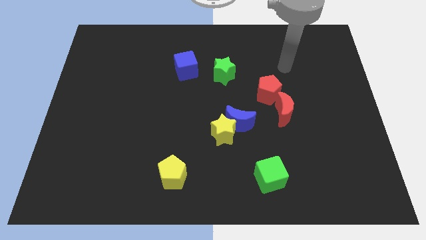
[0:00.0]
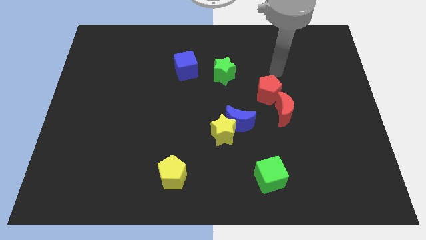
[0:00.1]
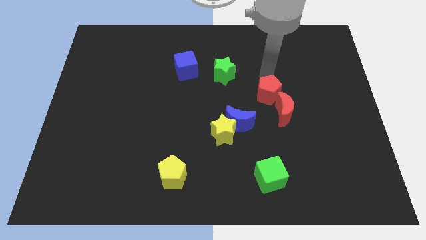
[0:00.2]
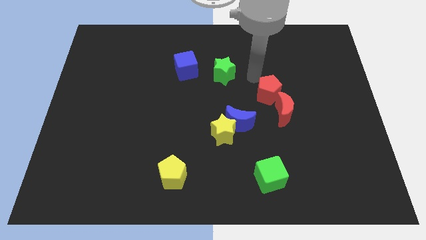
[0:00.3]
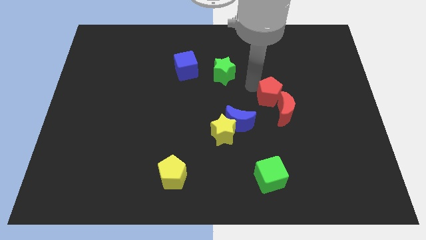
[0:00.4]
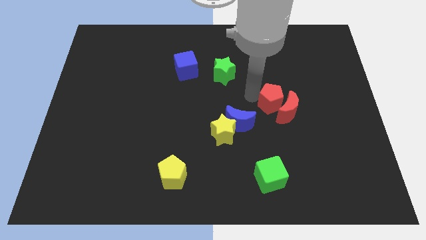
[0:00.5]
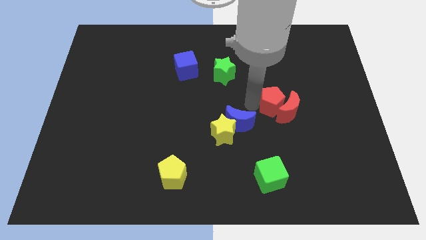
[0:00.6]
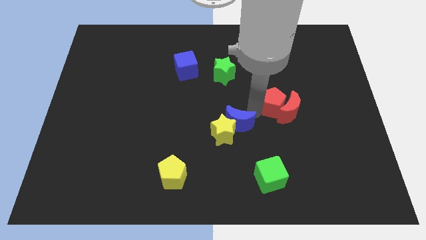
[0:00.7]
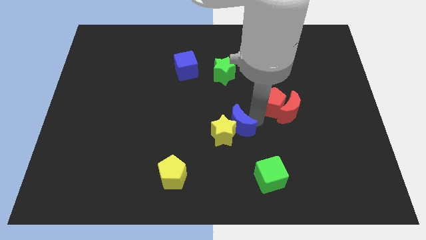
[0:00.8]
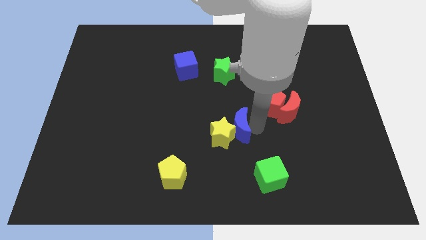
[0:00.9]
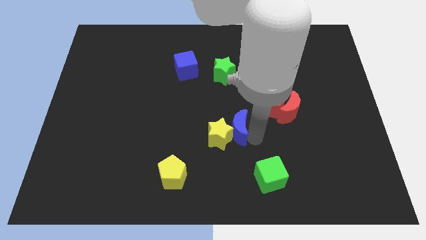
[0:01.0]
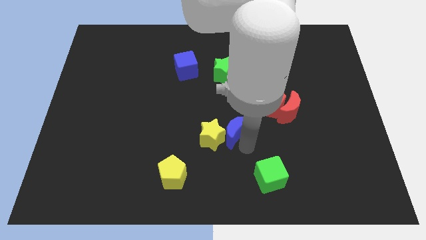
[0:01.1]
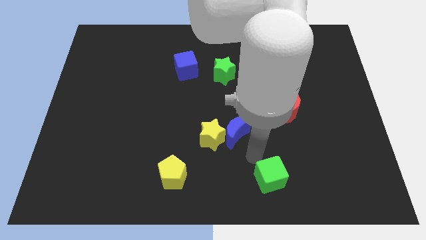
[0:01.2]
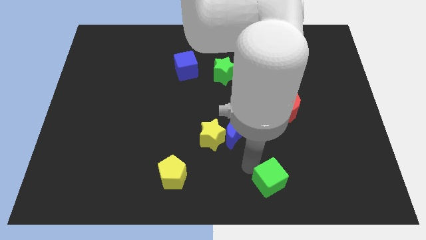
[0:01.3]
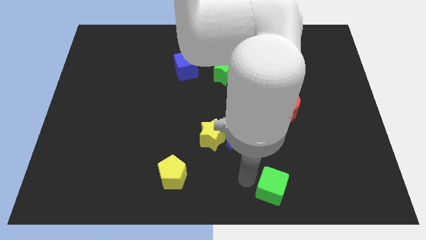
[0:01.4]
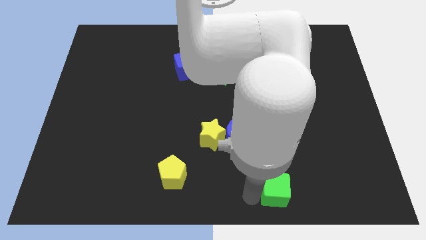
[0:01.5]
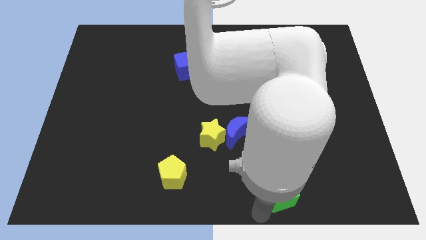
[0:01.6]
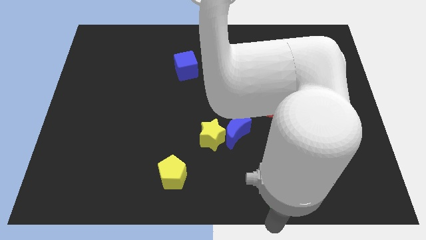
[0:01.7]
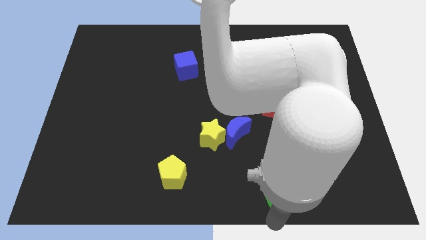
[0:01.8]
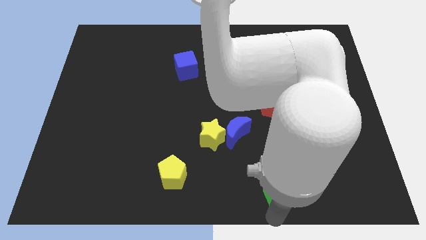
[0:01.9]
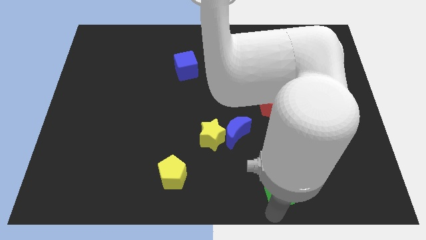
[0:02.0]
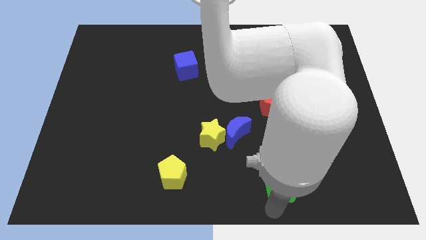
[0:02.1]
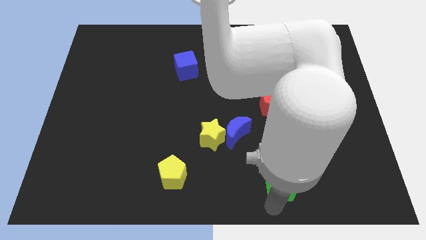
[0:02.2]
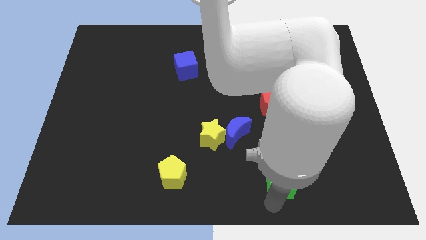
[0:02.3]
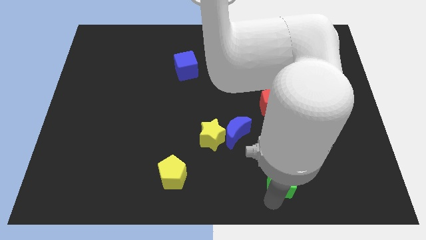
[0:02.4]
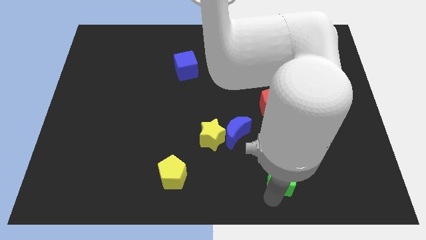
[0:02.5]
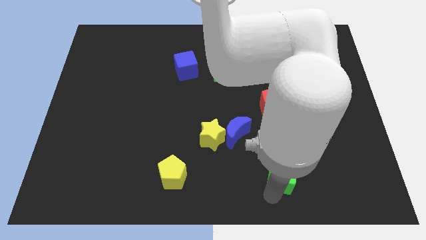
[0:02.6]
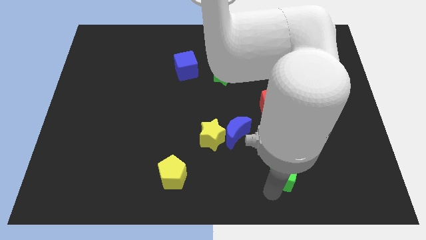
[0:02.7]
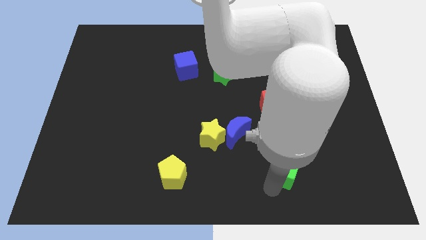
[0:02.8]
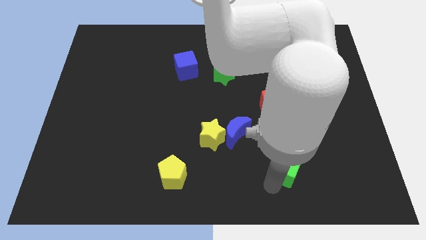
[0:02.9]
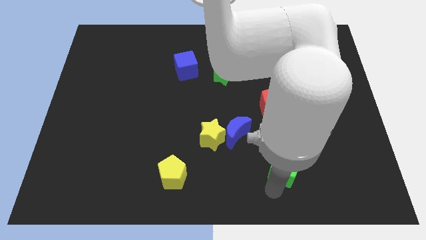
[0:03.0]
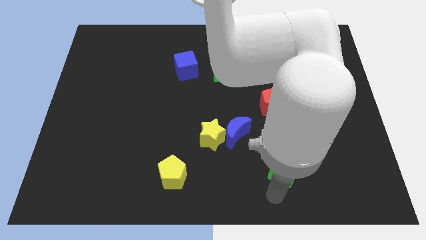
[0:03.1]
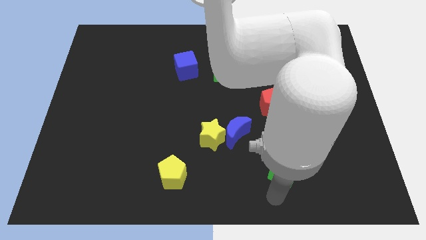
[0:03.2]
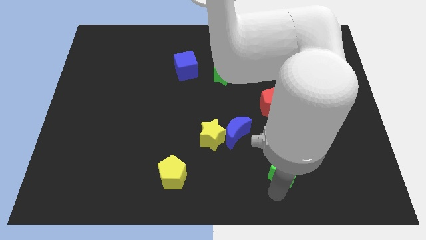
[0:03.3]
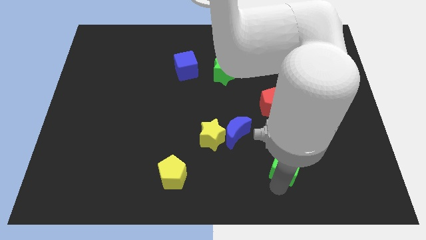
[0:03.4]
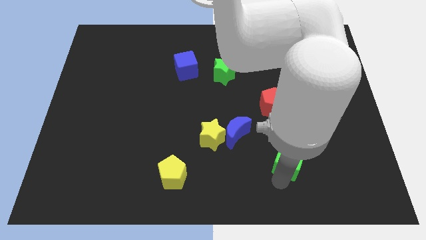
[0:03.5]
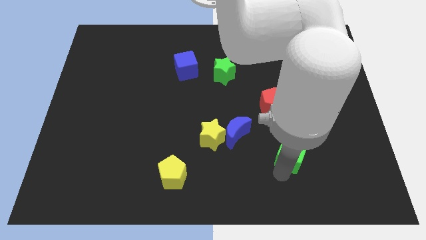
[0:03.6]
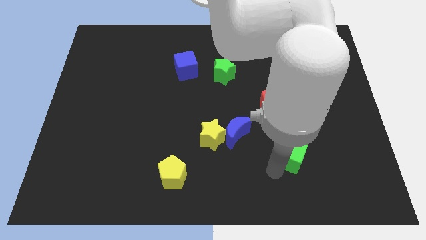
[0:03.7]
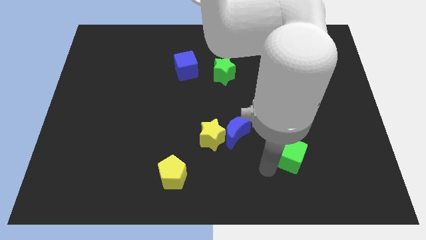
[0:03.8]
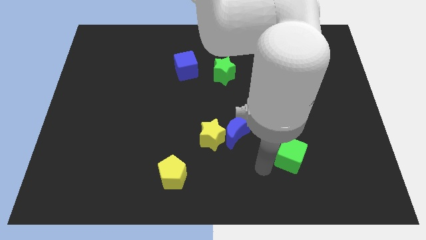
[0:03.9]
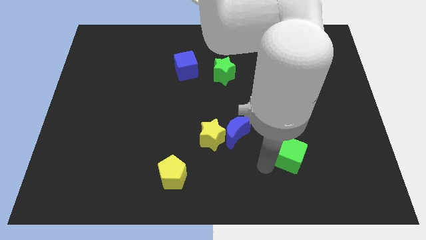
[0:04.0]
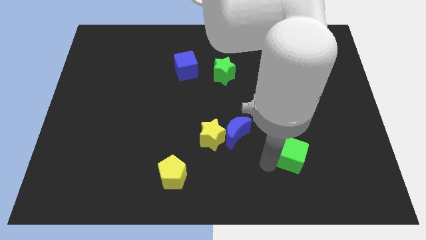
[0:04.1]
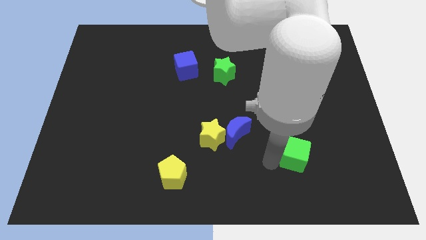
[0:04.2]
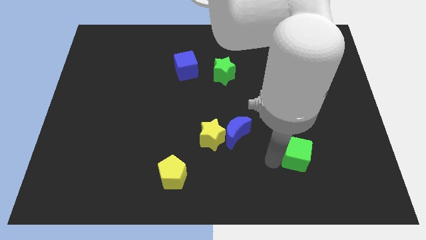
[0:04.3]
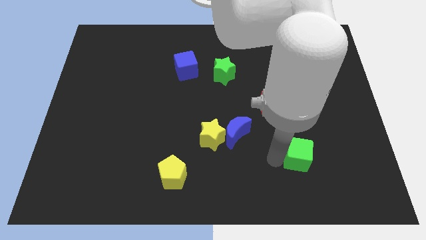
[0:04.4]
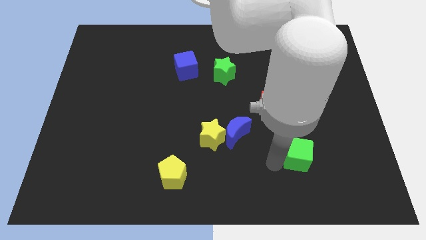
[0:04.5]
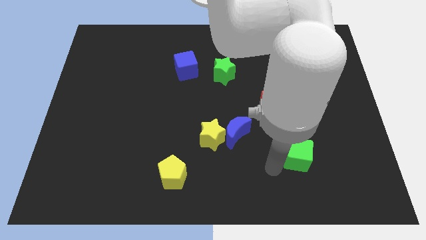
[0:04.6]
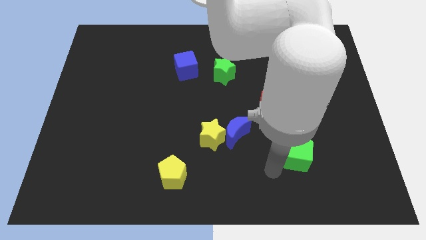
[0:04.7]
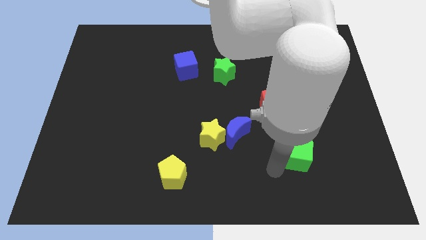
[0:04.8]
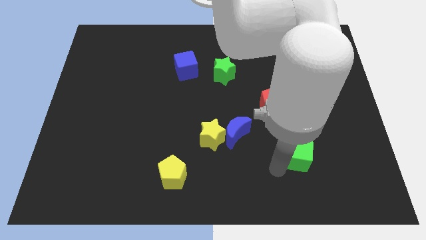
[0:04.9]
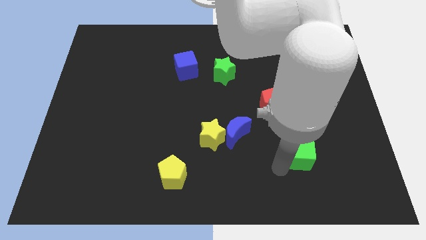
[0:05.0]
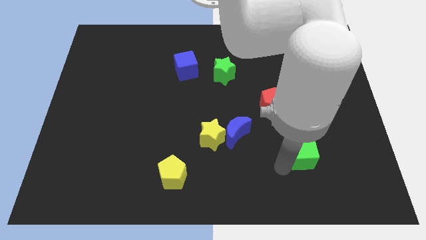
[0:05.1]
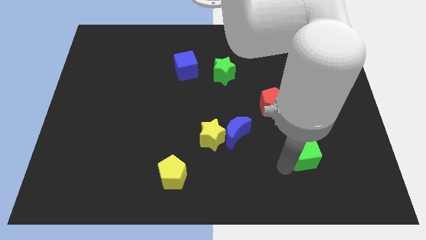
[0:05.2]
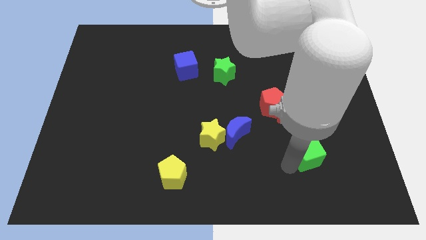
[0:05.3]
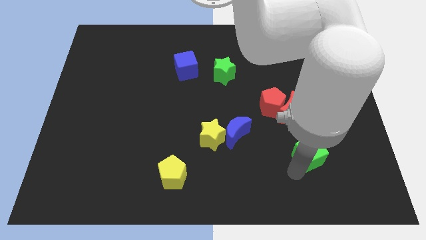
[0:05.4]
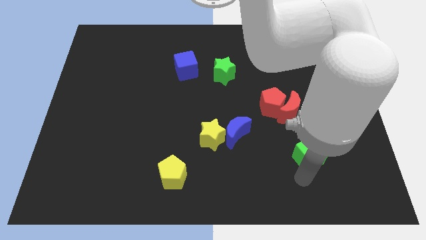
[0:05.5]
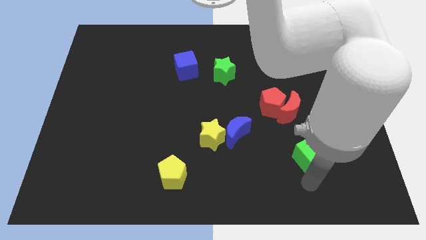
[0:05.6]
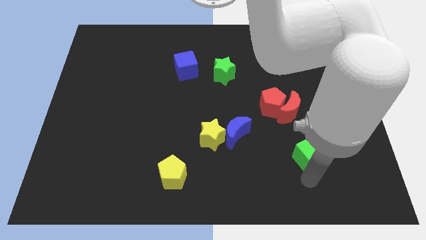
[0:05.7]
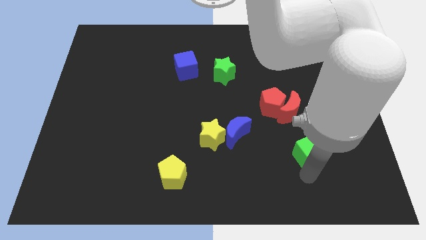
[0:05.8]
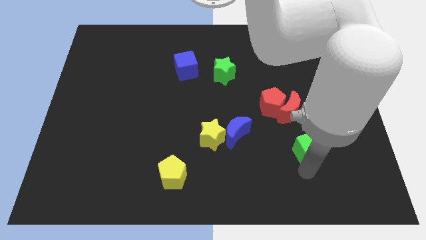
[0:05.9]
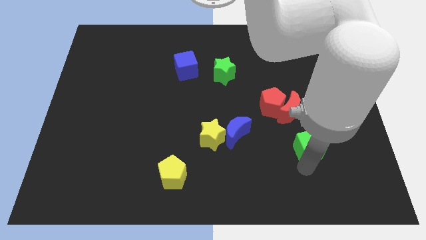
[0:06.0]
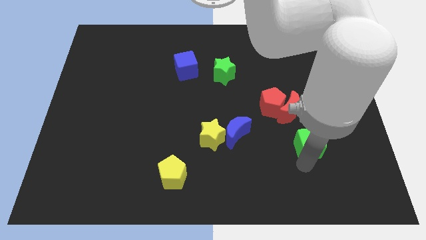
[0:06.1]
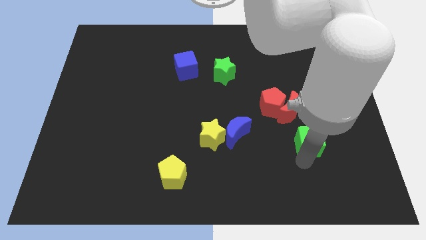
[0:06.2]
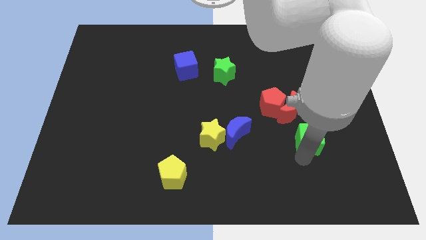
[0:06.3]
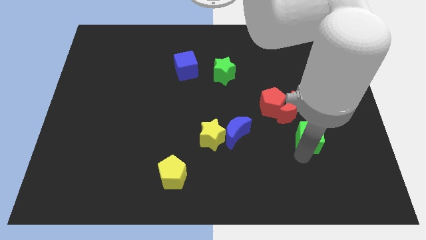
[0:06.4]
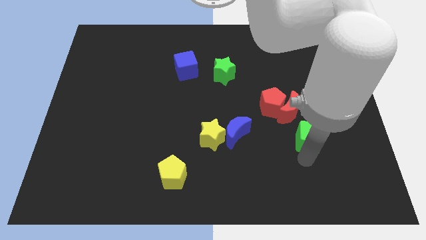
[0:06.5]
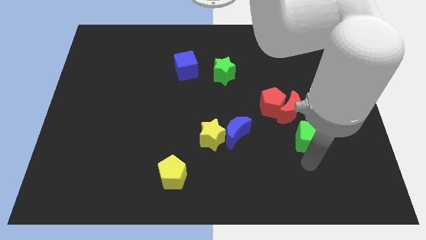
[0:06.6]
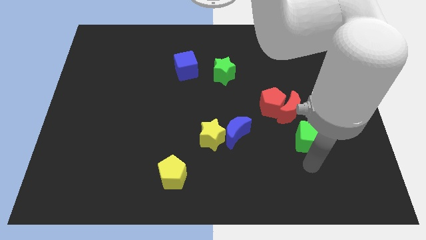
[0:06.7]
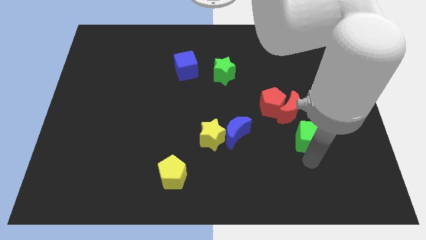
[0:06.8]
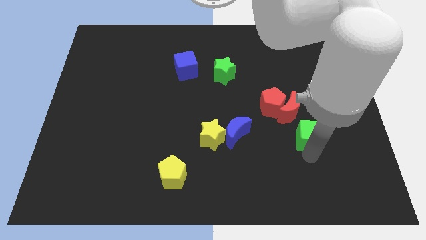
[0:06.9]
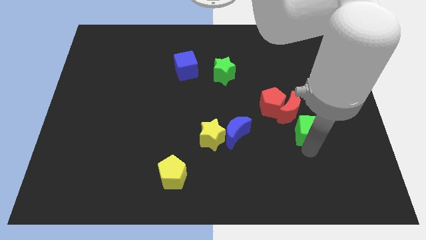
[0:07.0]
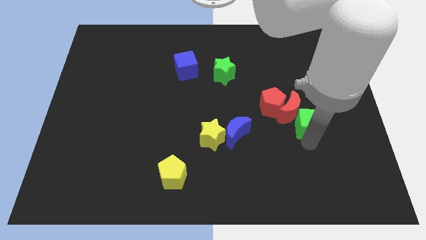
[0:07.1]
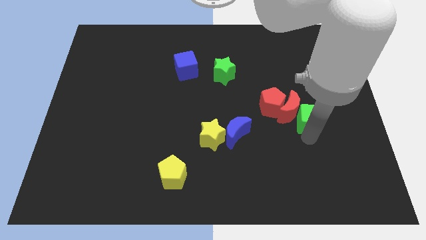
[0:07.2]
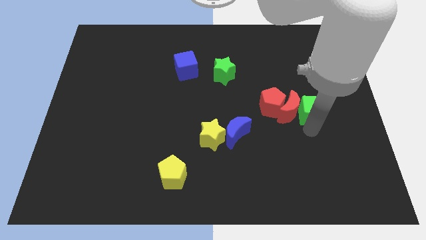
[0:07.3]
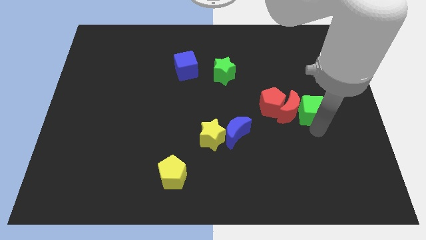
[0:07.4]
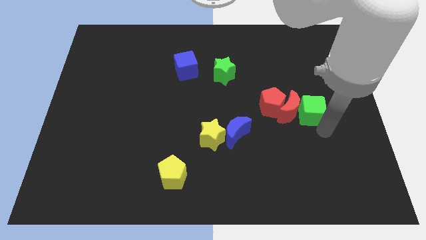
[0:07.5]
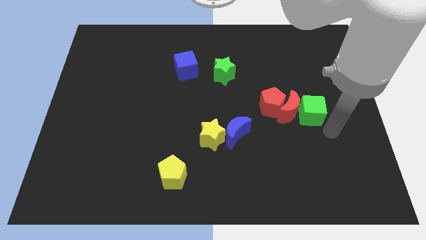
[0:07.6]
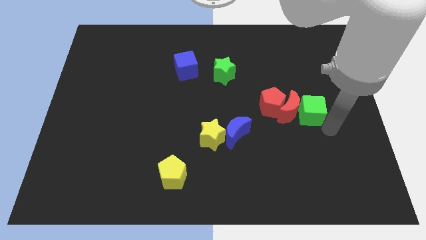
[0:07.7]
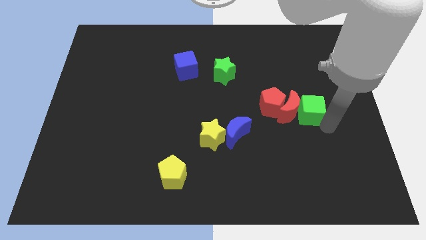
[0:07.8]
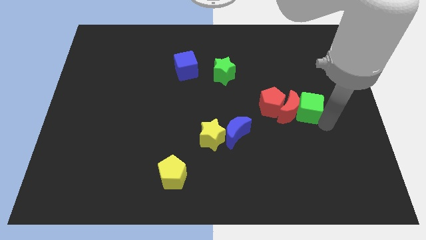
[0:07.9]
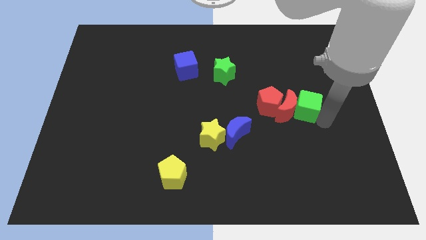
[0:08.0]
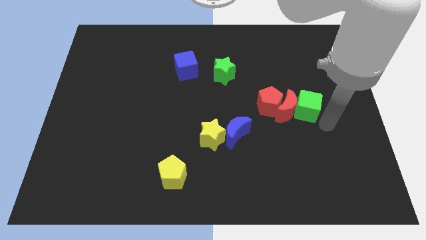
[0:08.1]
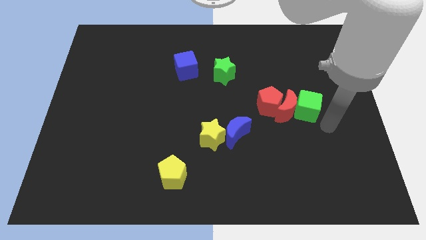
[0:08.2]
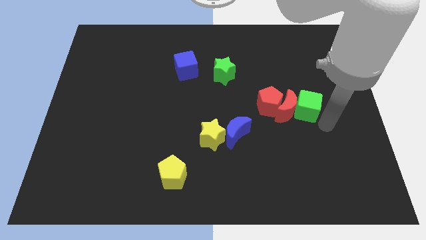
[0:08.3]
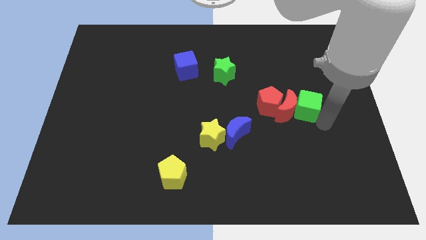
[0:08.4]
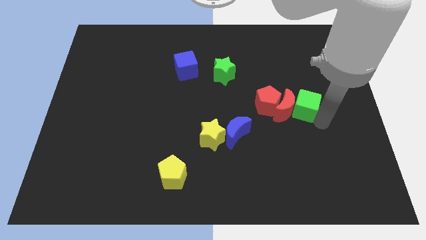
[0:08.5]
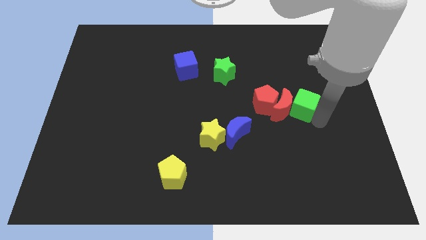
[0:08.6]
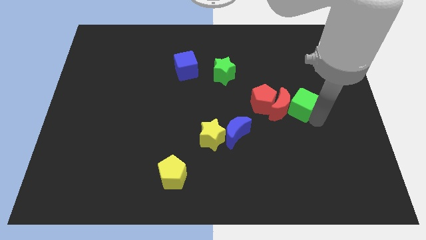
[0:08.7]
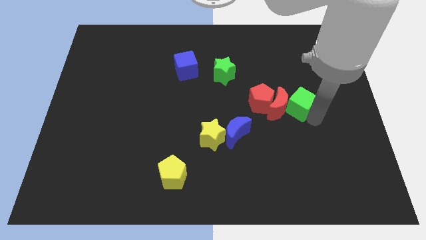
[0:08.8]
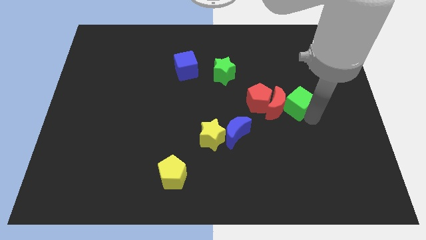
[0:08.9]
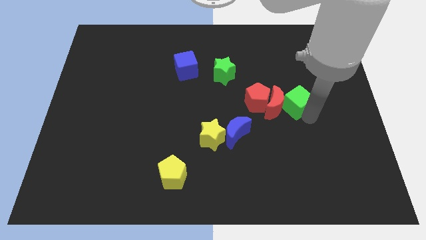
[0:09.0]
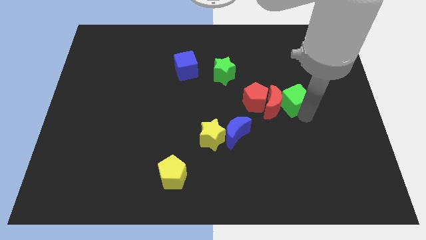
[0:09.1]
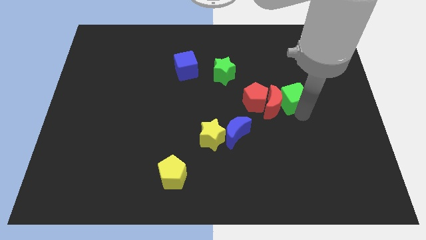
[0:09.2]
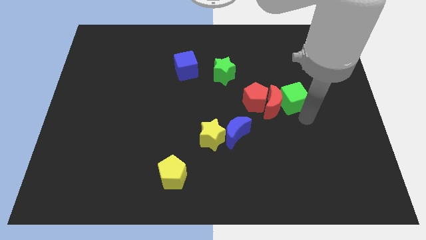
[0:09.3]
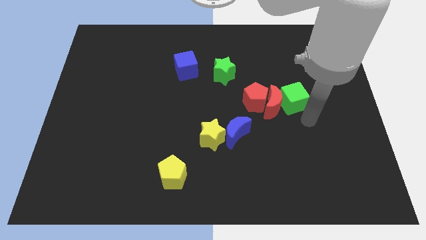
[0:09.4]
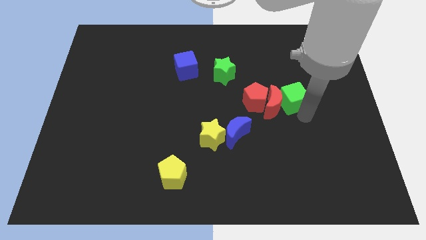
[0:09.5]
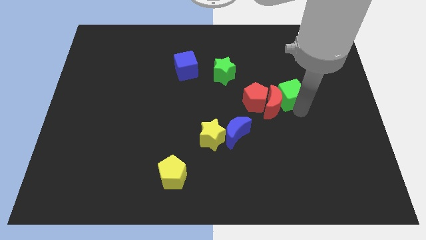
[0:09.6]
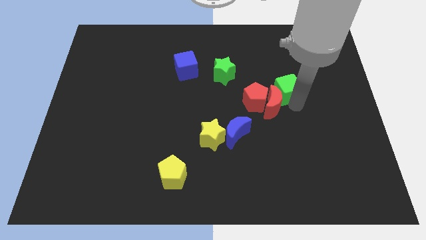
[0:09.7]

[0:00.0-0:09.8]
move the green cube up
